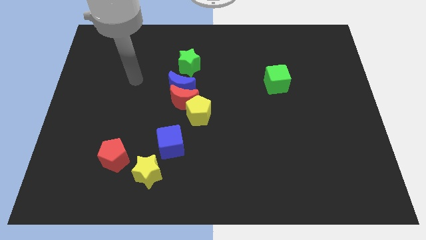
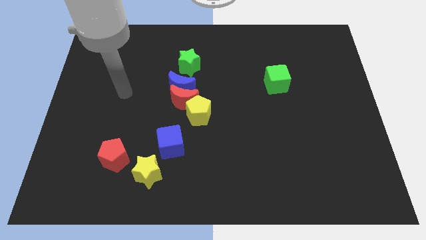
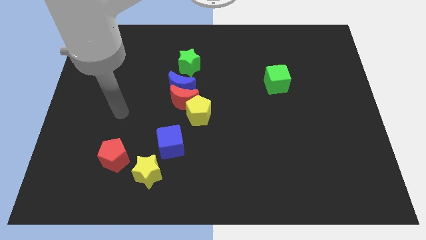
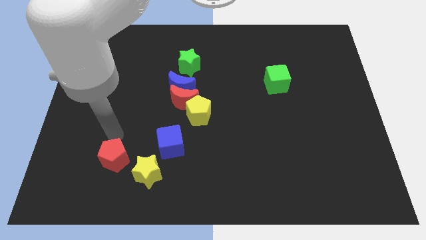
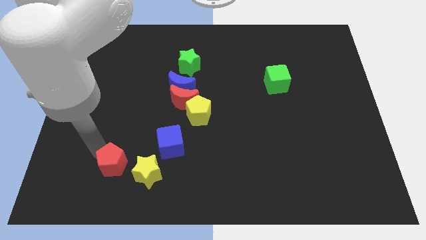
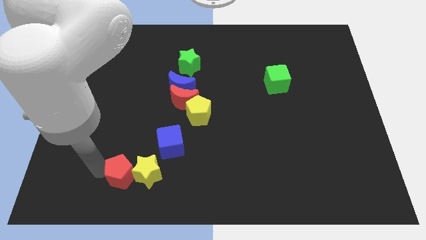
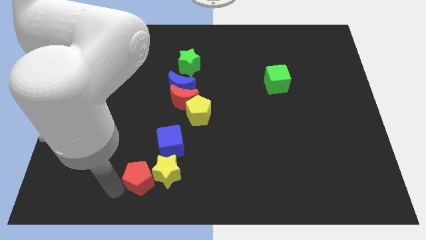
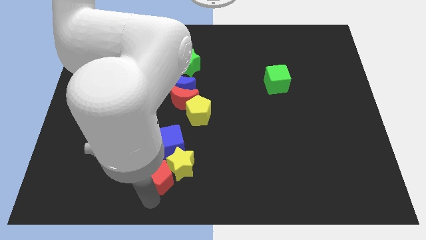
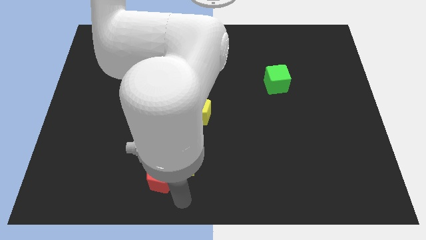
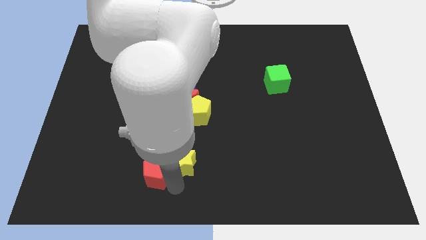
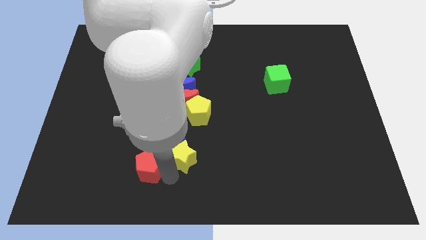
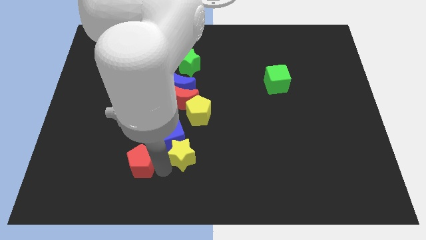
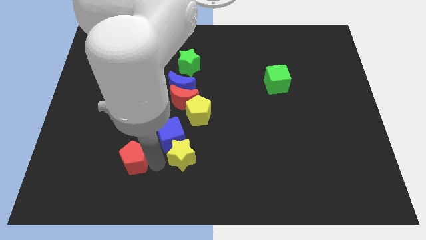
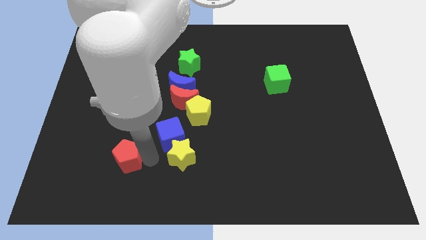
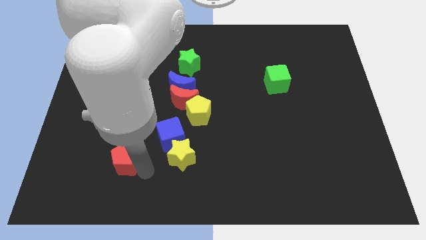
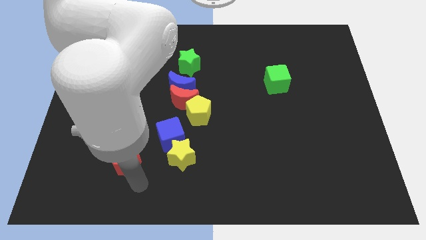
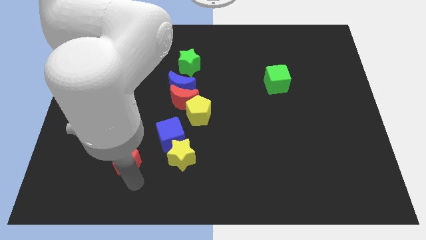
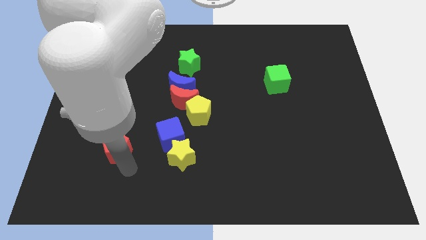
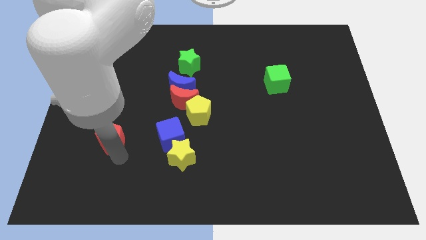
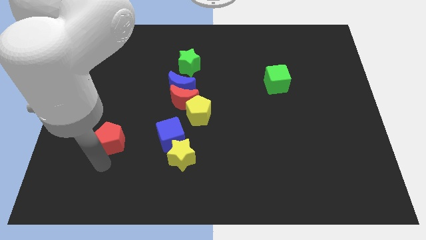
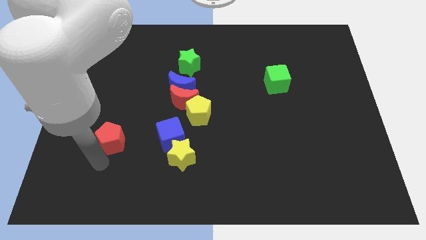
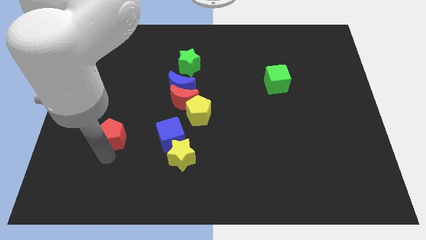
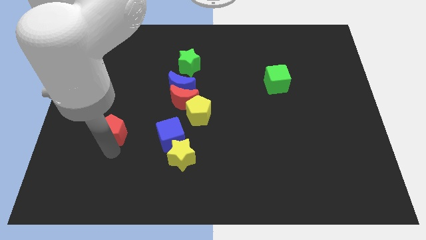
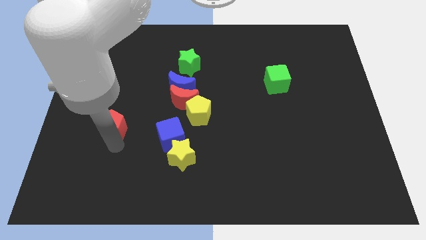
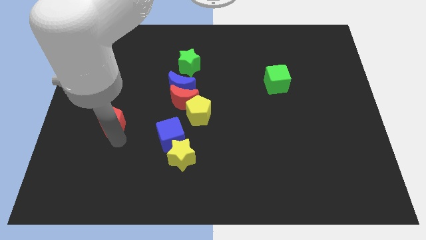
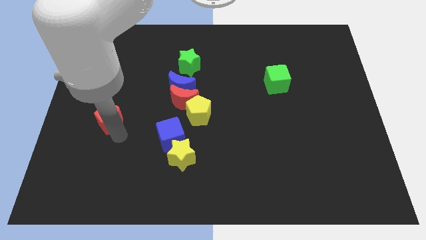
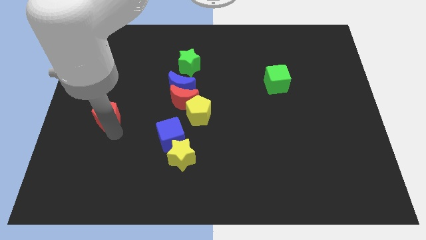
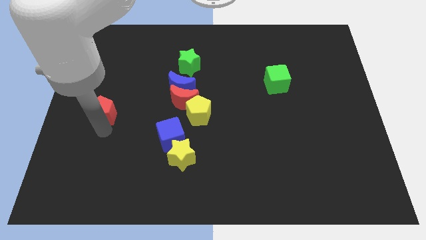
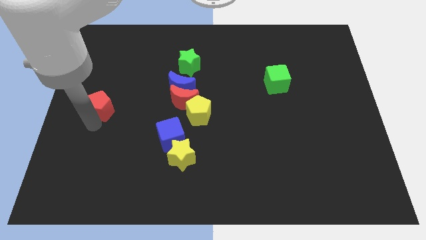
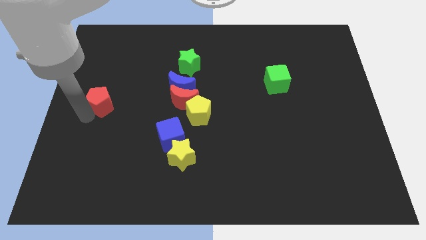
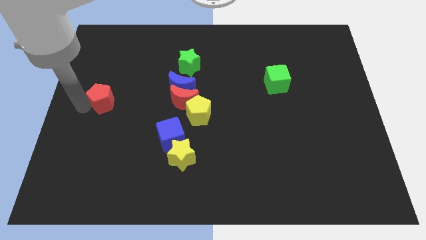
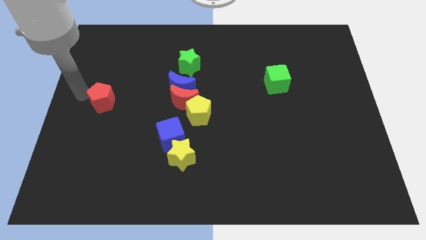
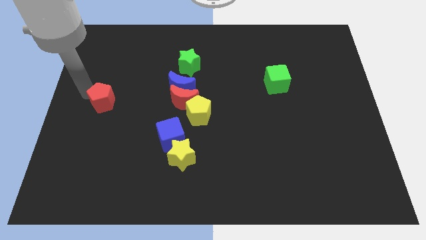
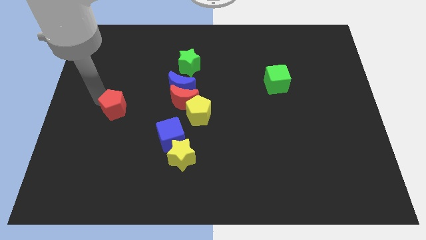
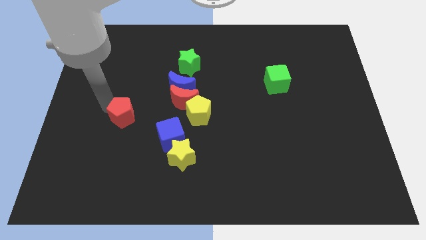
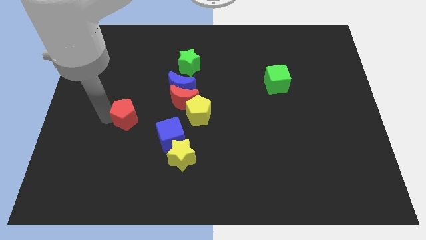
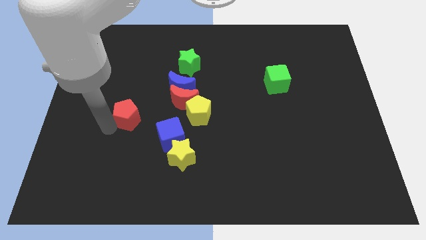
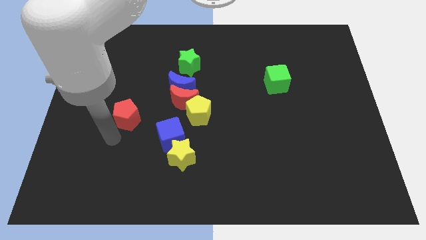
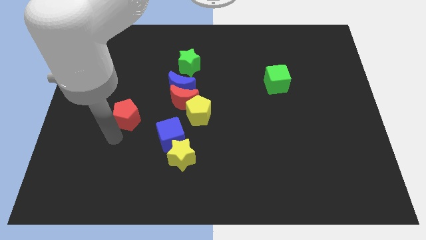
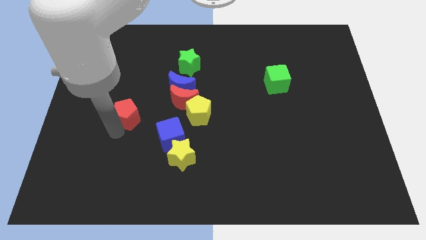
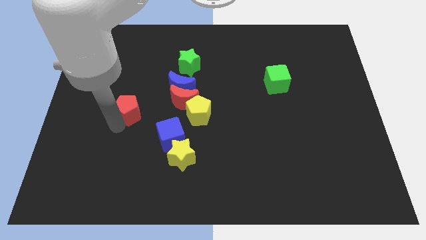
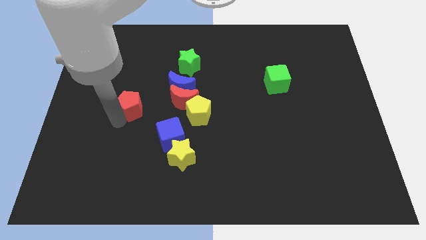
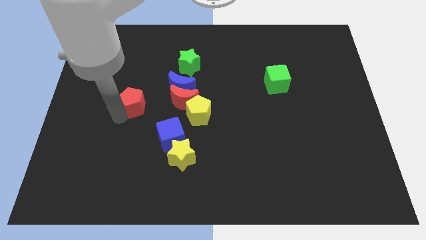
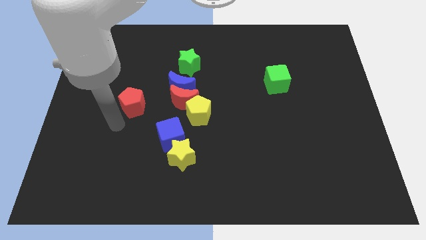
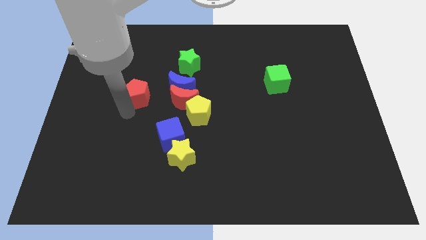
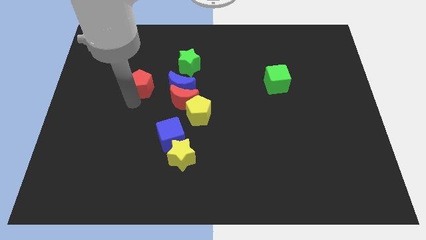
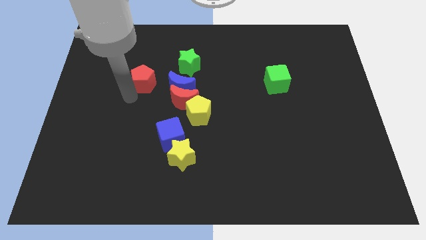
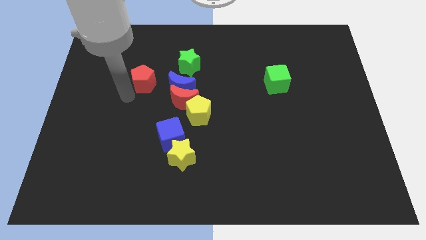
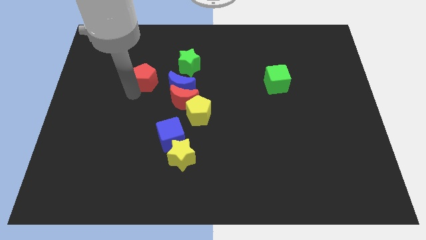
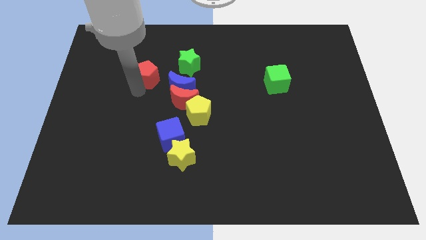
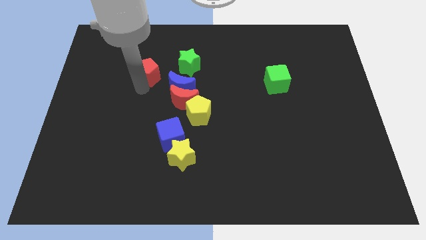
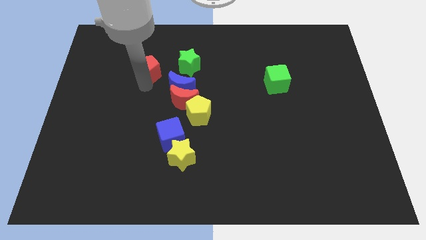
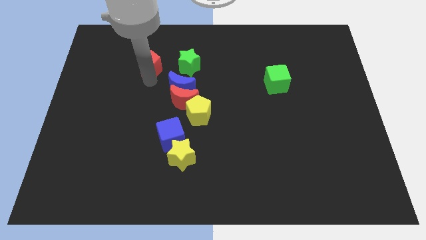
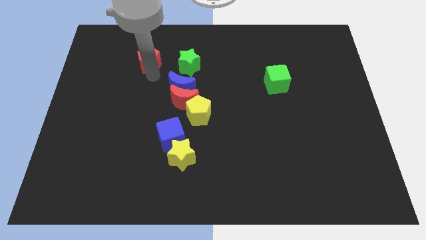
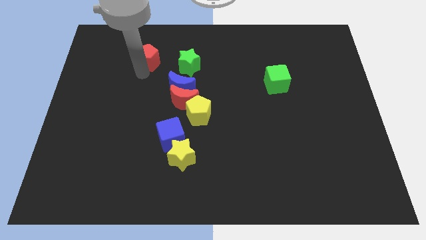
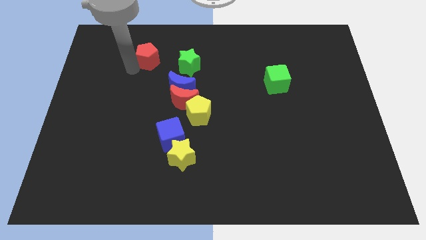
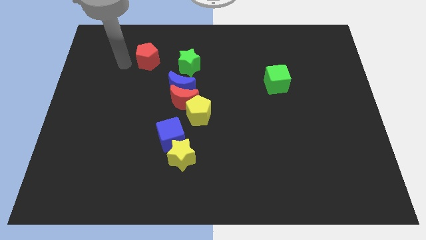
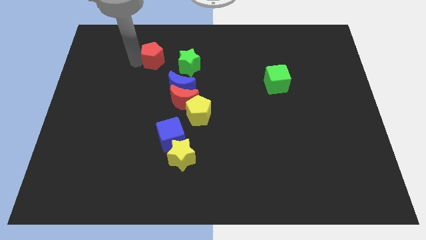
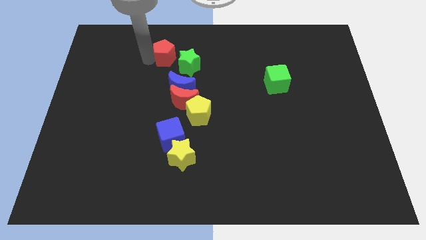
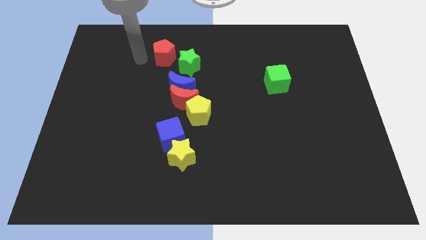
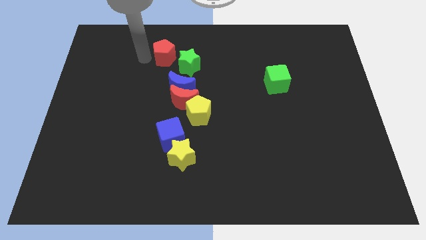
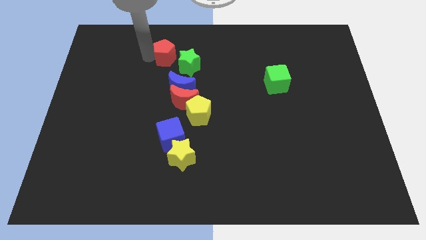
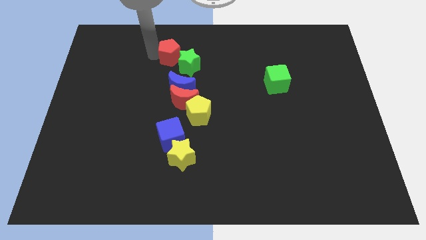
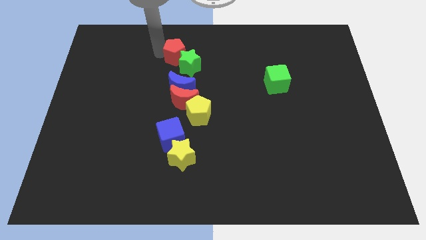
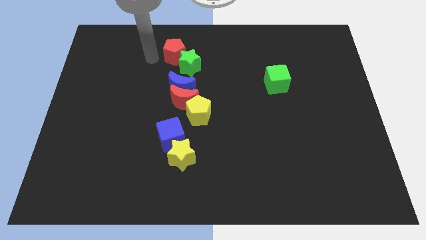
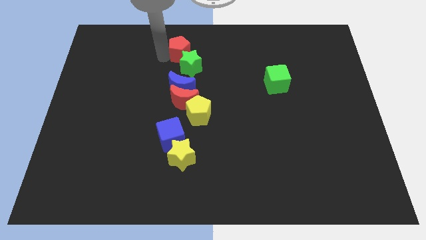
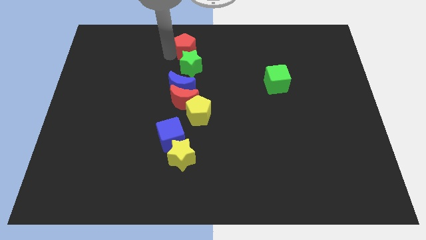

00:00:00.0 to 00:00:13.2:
slide the red pentagon to the top

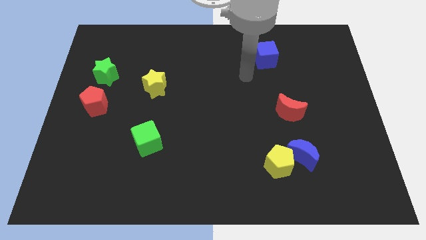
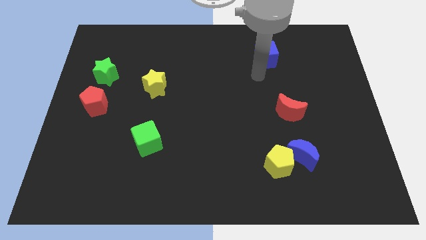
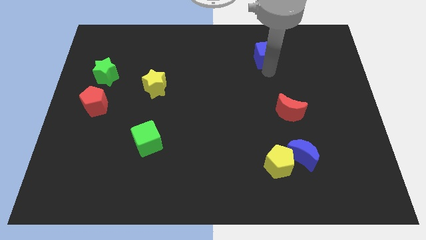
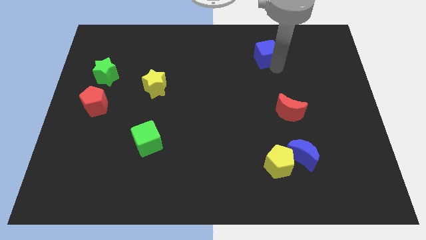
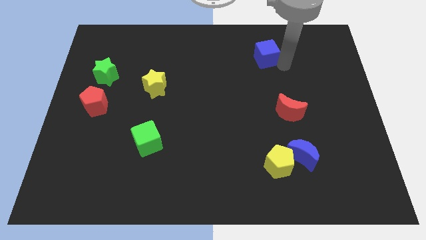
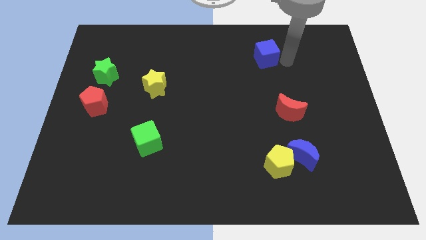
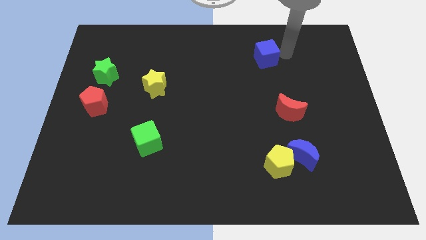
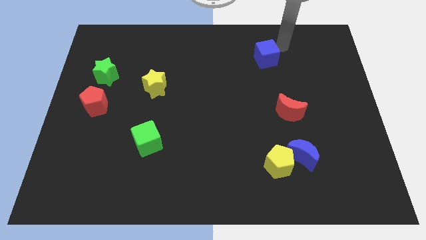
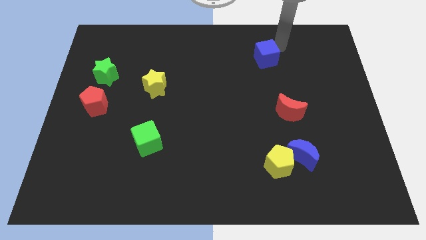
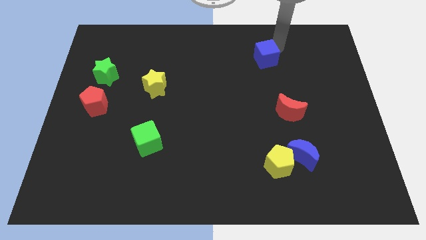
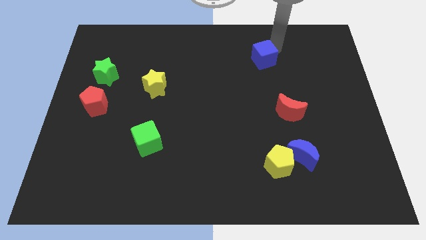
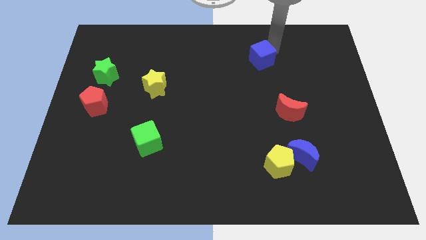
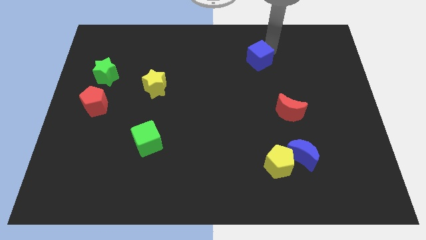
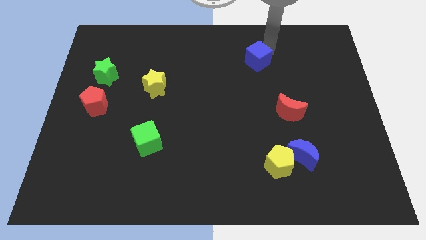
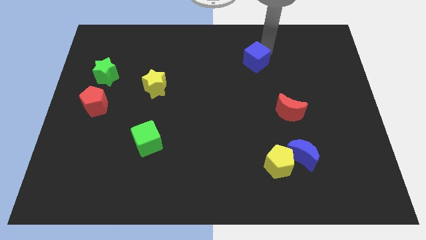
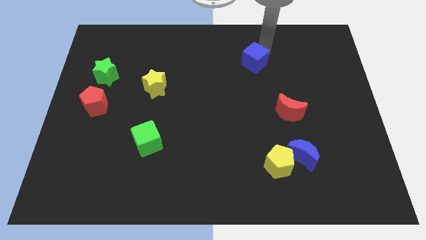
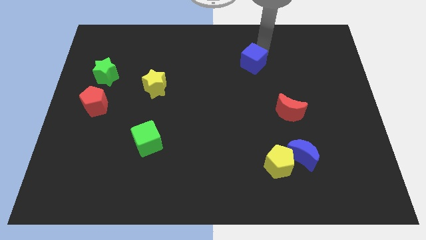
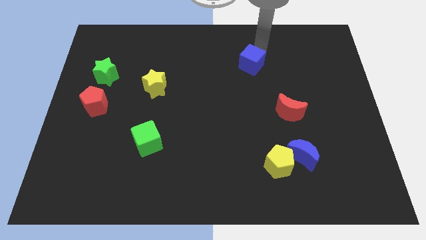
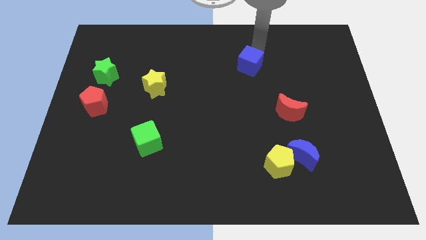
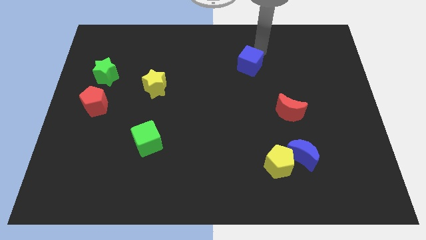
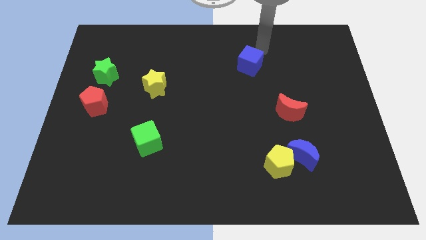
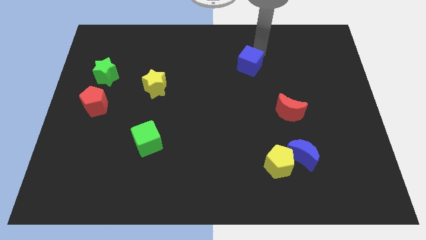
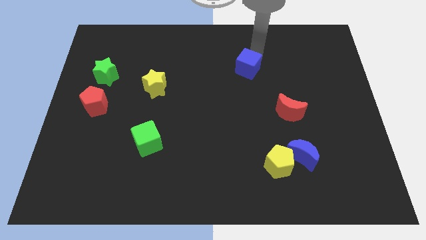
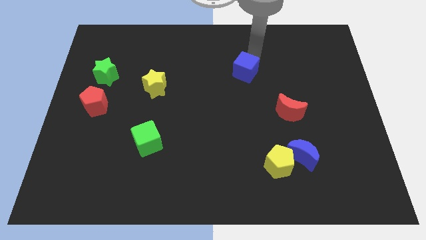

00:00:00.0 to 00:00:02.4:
slide the blue cube to the middle
